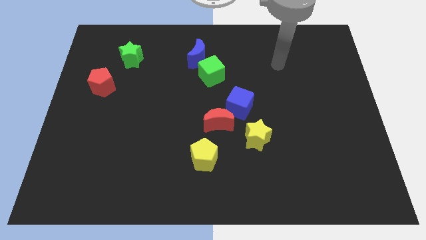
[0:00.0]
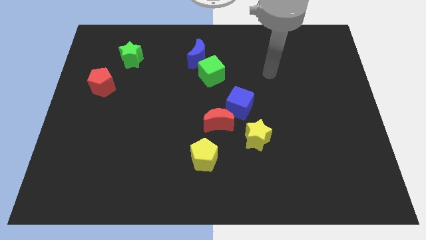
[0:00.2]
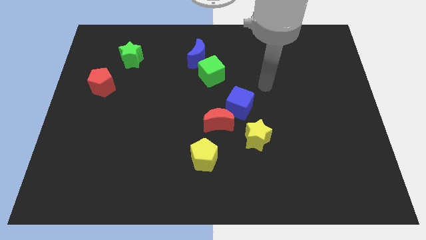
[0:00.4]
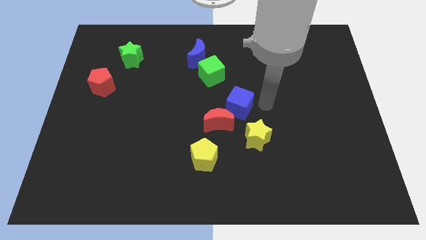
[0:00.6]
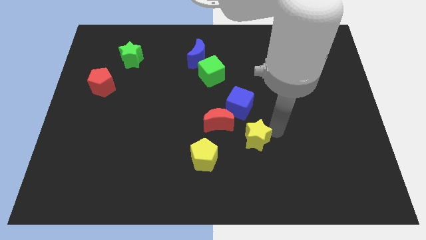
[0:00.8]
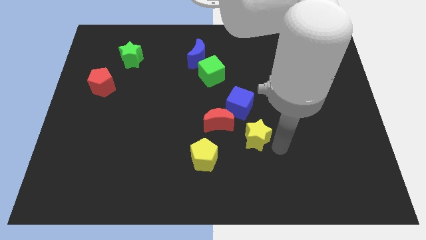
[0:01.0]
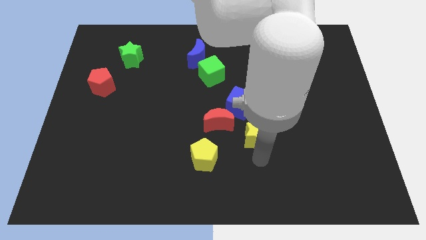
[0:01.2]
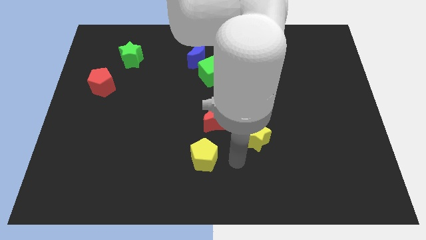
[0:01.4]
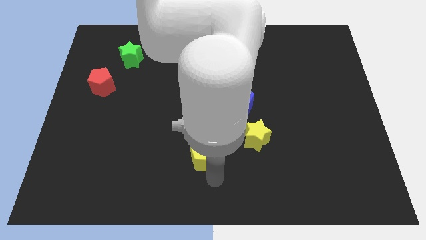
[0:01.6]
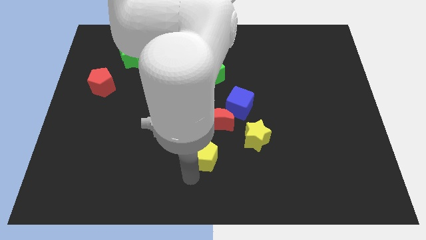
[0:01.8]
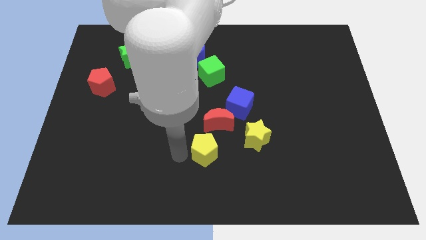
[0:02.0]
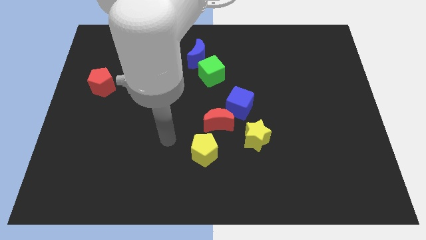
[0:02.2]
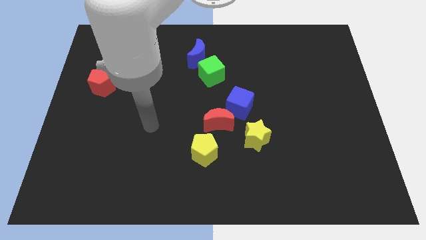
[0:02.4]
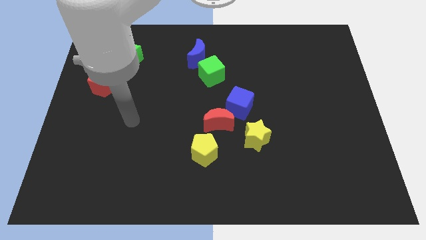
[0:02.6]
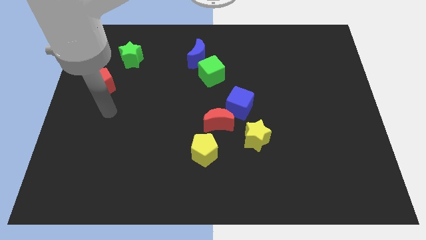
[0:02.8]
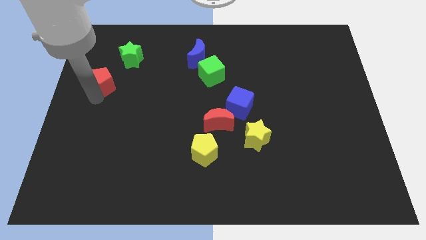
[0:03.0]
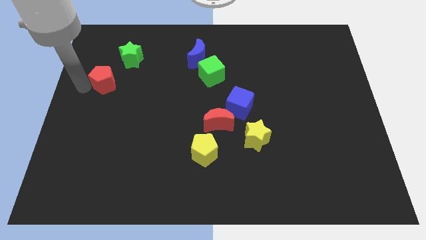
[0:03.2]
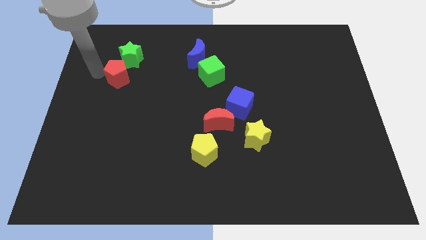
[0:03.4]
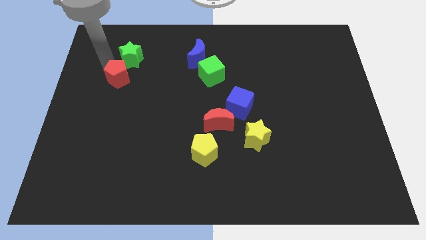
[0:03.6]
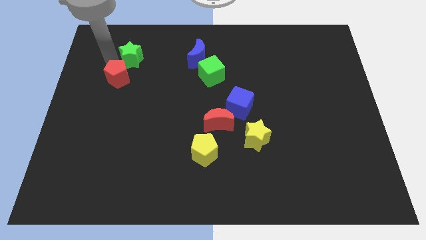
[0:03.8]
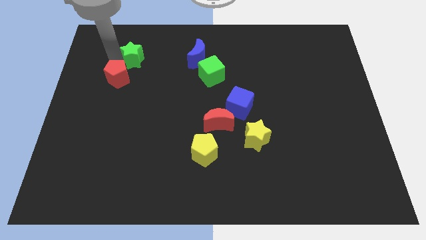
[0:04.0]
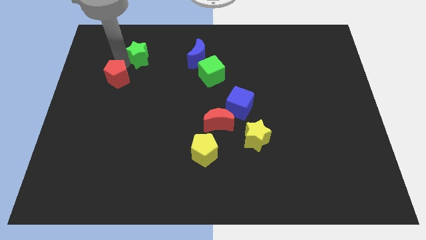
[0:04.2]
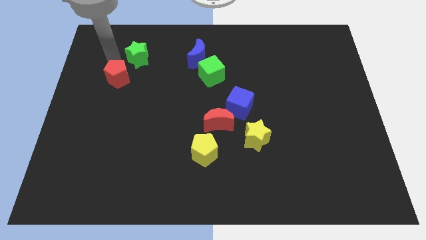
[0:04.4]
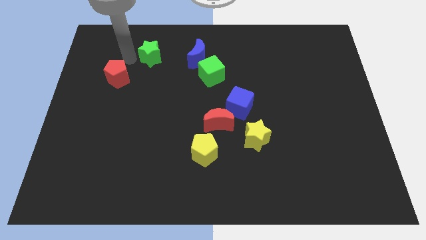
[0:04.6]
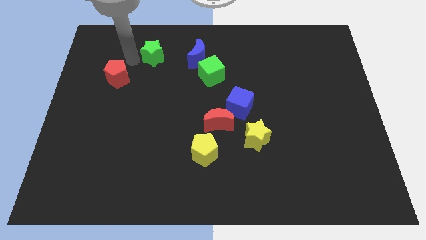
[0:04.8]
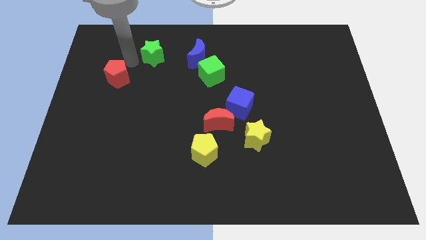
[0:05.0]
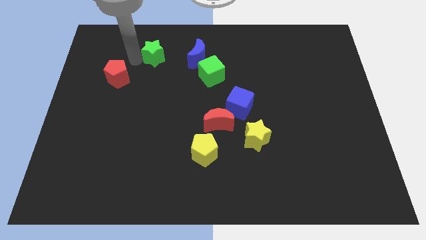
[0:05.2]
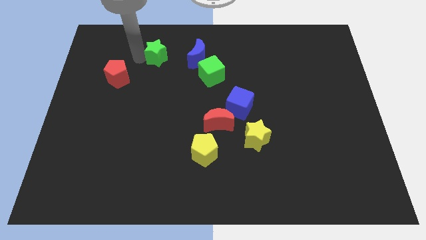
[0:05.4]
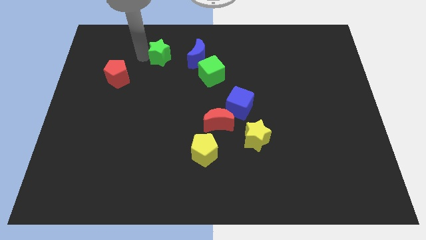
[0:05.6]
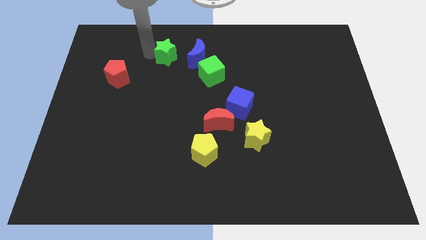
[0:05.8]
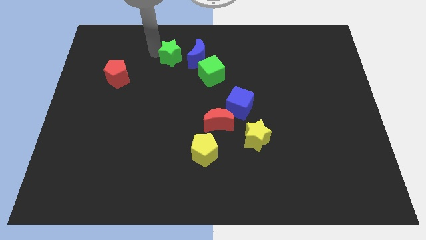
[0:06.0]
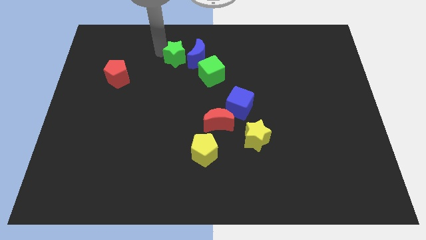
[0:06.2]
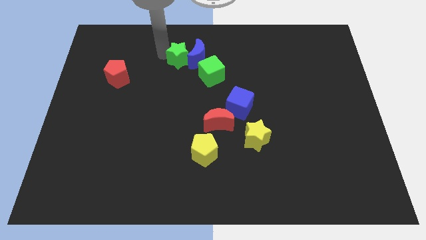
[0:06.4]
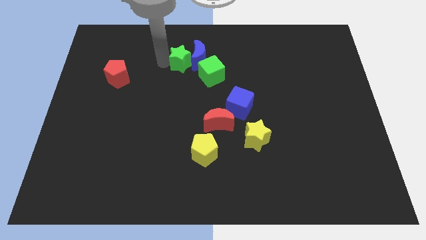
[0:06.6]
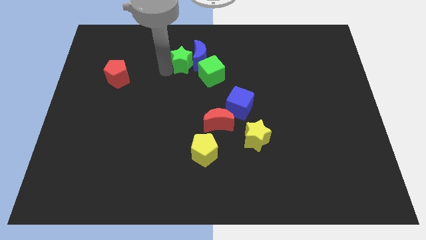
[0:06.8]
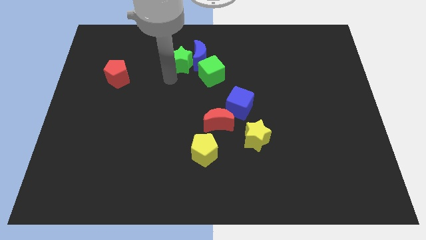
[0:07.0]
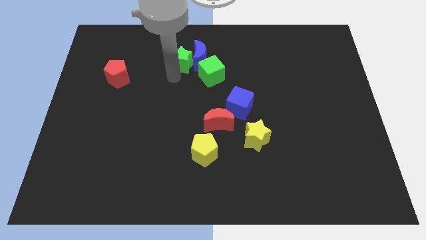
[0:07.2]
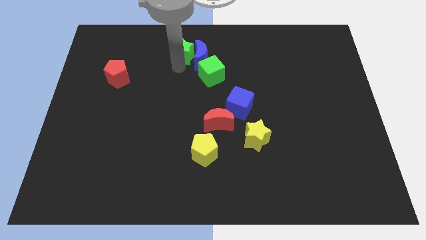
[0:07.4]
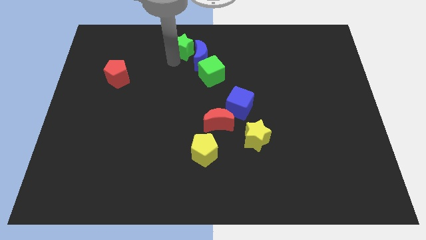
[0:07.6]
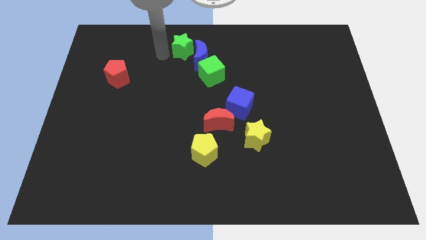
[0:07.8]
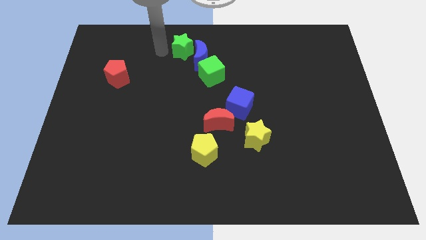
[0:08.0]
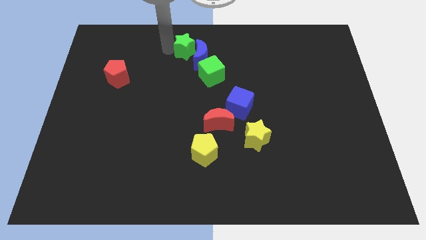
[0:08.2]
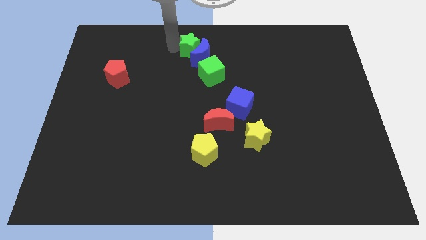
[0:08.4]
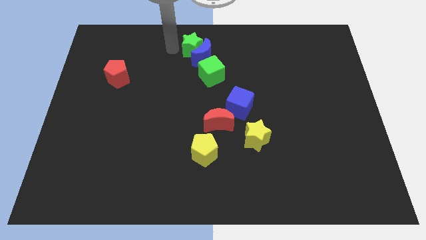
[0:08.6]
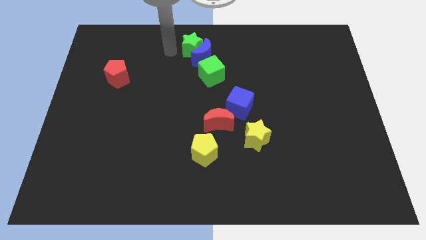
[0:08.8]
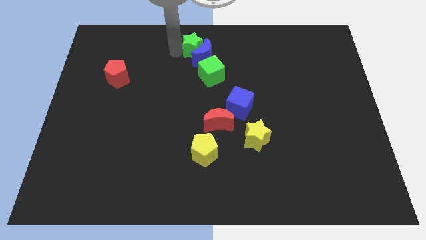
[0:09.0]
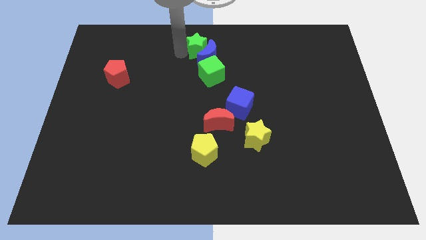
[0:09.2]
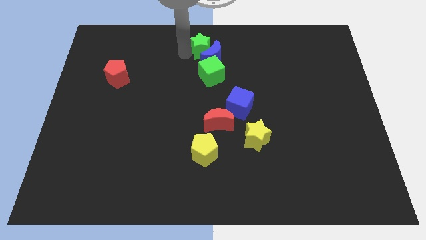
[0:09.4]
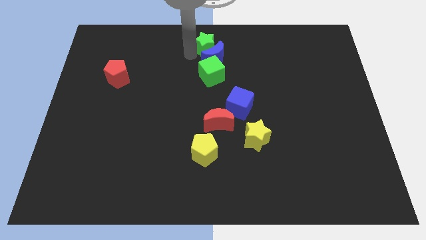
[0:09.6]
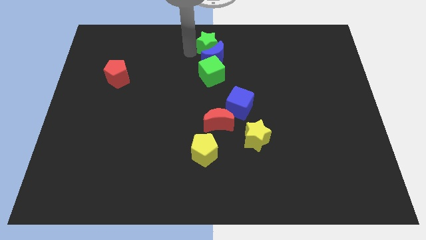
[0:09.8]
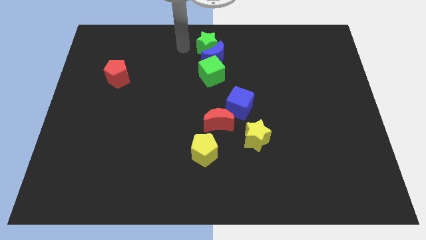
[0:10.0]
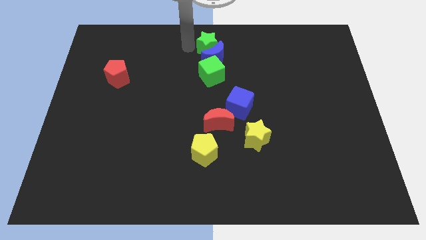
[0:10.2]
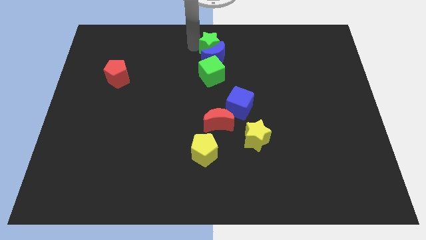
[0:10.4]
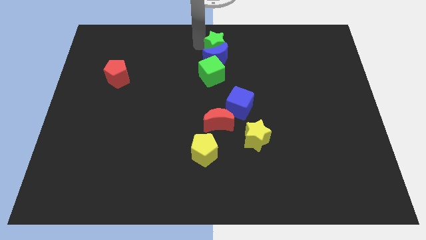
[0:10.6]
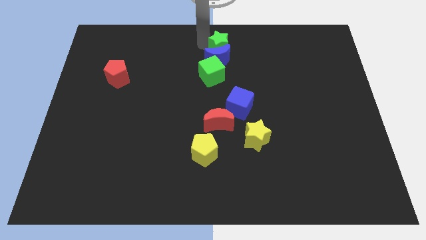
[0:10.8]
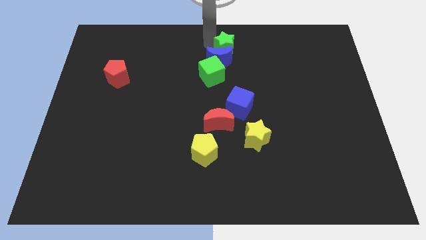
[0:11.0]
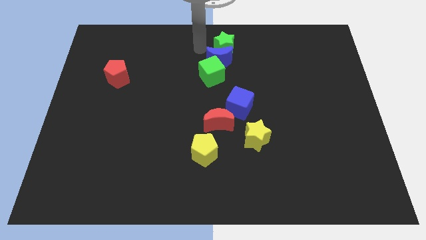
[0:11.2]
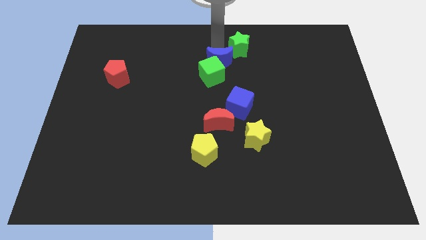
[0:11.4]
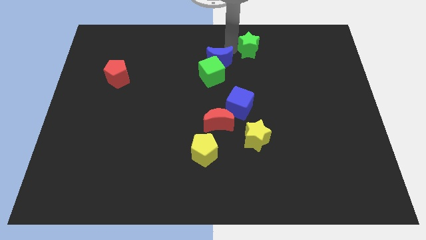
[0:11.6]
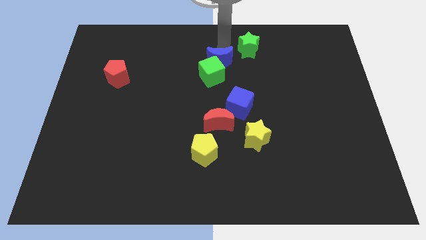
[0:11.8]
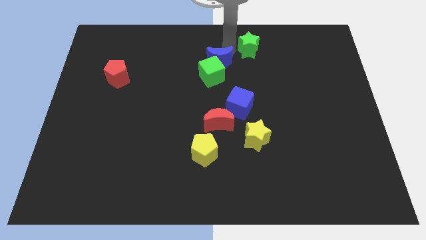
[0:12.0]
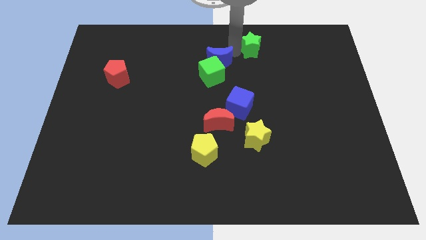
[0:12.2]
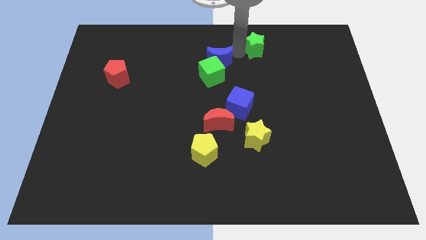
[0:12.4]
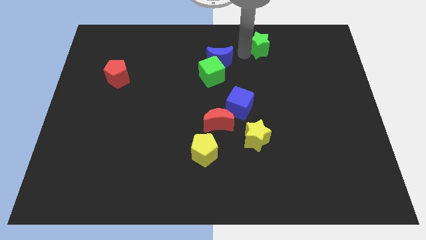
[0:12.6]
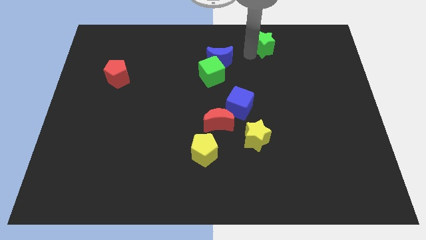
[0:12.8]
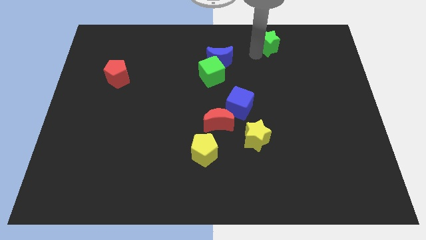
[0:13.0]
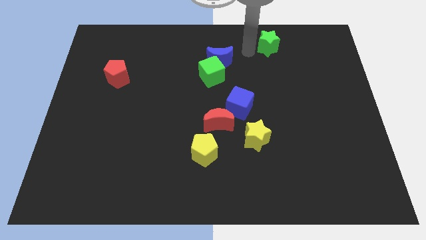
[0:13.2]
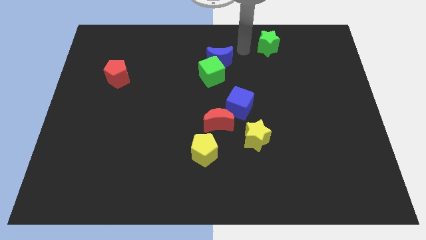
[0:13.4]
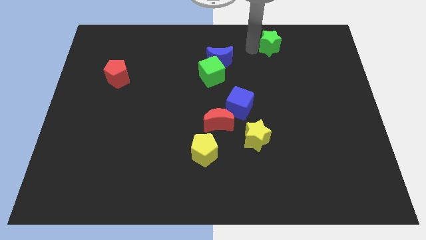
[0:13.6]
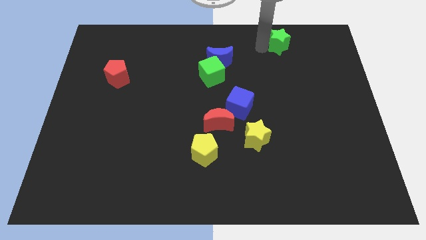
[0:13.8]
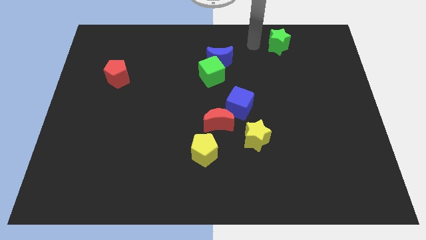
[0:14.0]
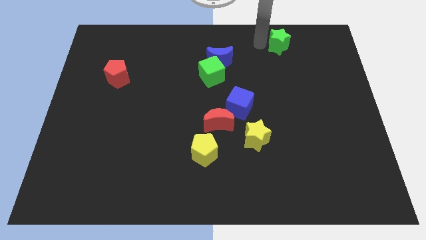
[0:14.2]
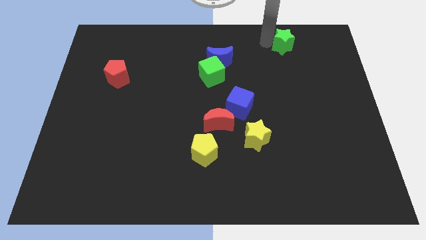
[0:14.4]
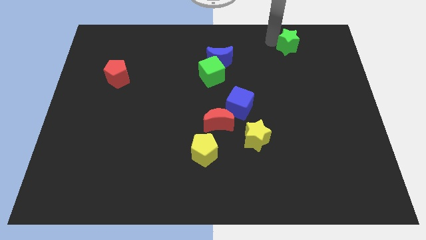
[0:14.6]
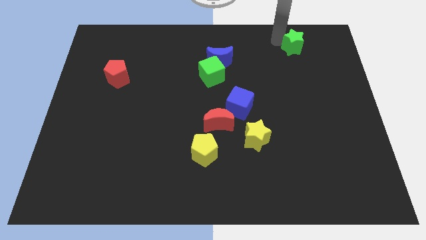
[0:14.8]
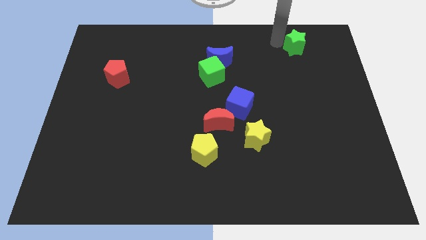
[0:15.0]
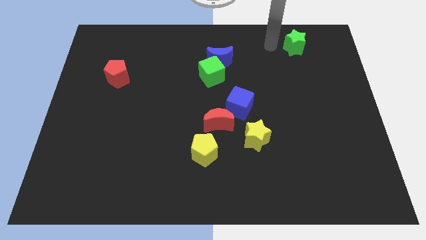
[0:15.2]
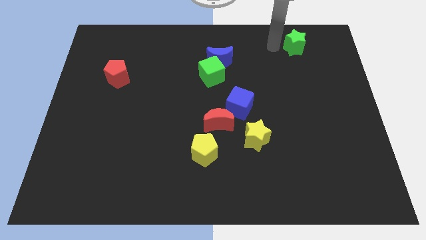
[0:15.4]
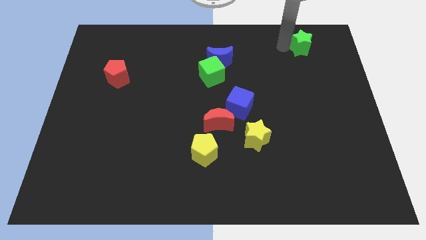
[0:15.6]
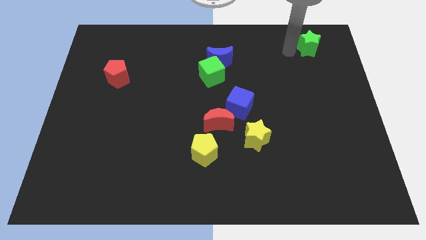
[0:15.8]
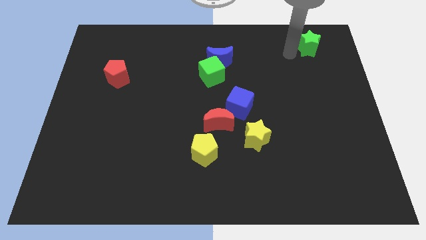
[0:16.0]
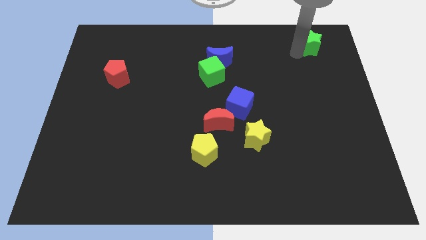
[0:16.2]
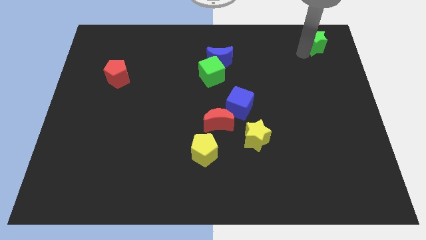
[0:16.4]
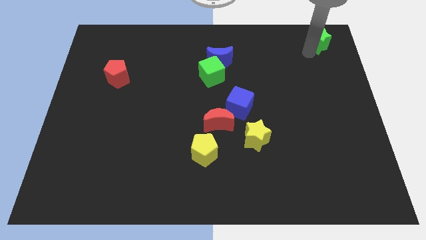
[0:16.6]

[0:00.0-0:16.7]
slide the green star to the upper right corner
